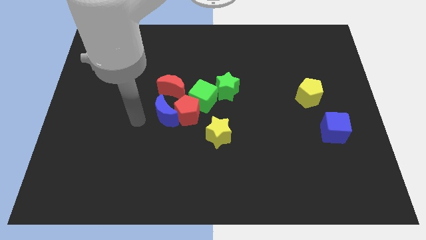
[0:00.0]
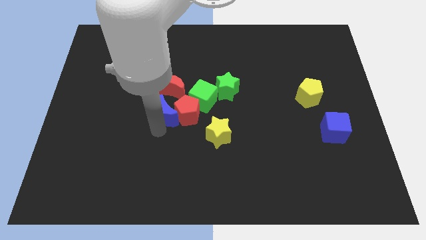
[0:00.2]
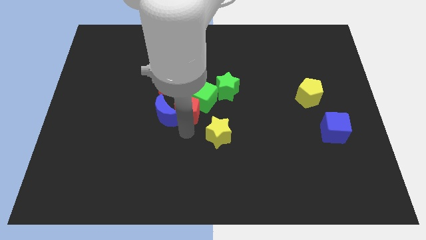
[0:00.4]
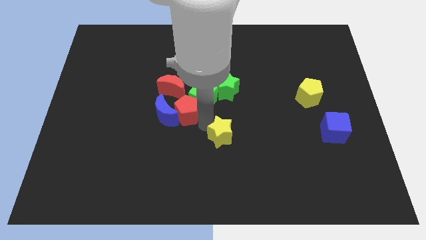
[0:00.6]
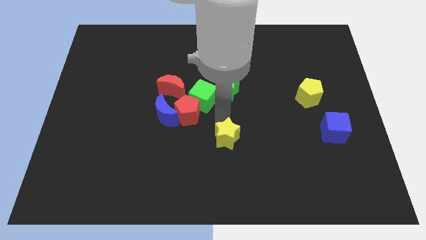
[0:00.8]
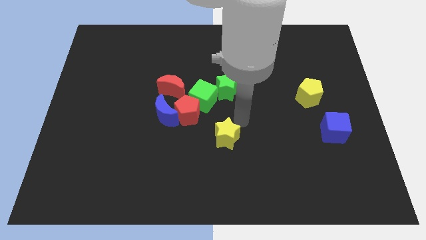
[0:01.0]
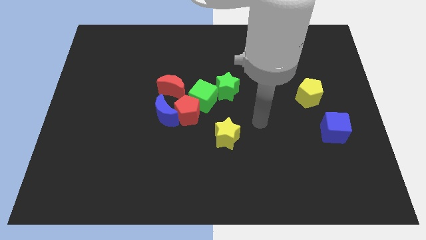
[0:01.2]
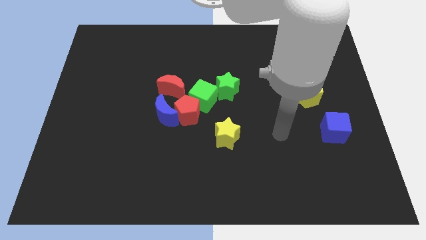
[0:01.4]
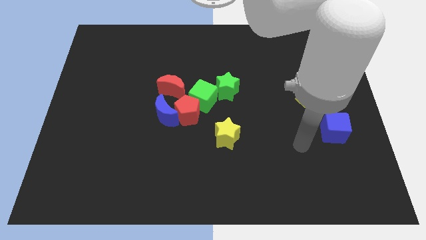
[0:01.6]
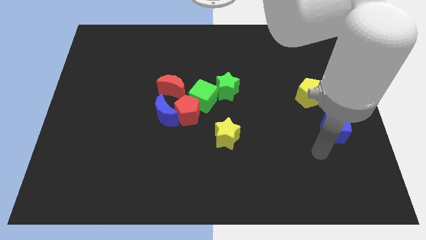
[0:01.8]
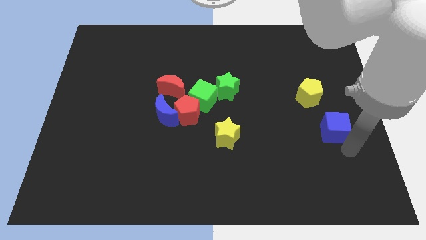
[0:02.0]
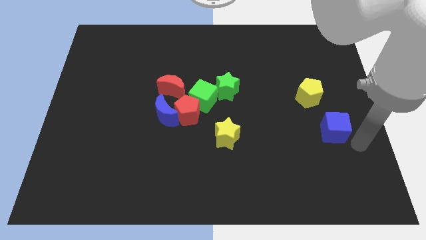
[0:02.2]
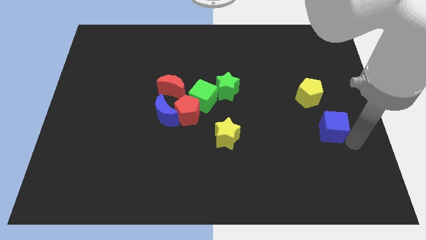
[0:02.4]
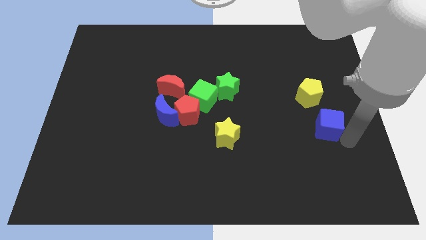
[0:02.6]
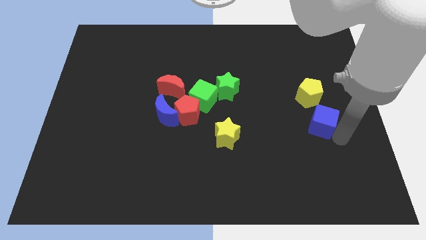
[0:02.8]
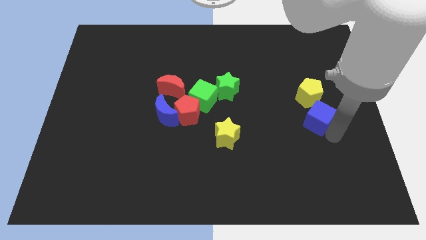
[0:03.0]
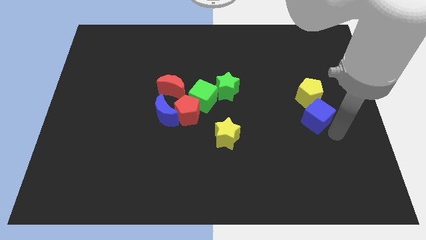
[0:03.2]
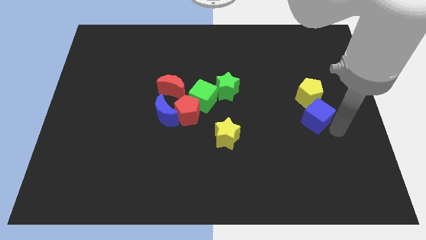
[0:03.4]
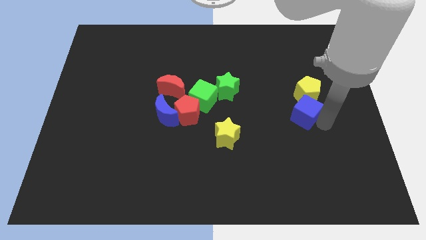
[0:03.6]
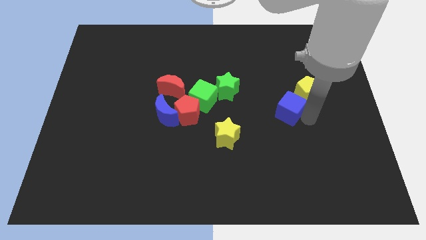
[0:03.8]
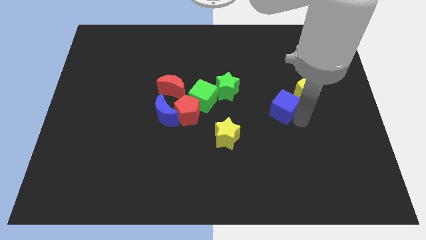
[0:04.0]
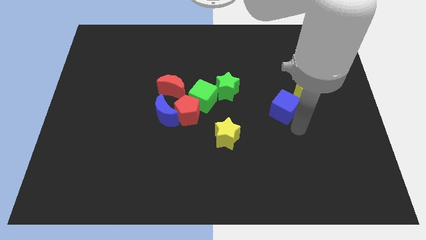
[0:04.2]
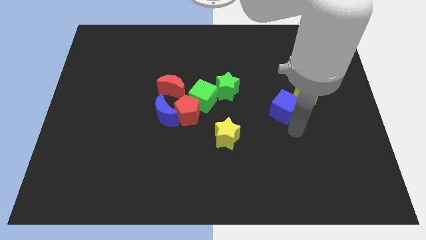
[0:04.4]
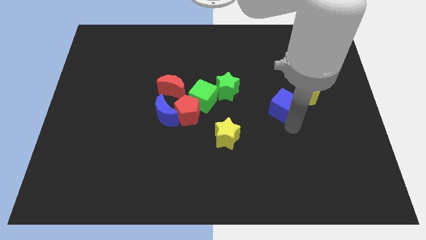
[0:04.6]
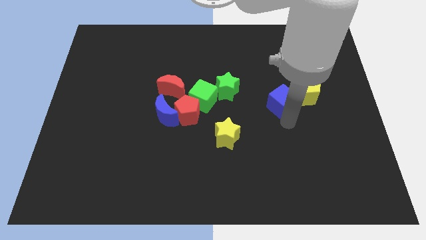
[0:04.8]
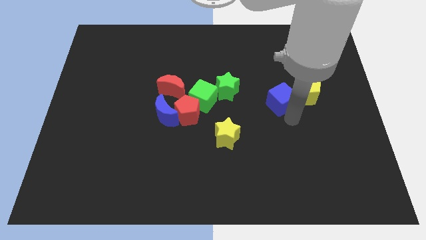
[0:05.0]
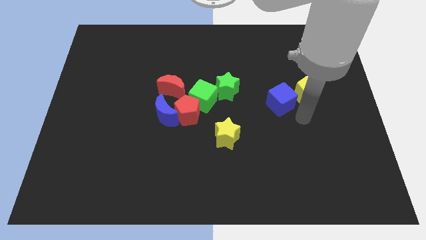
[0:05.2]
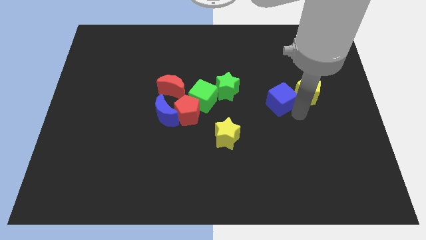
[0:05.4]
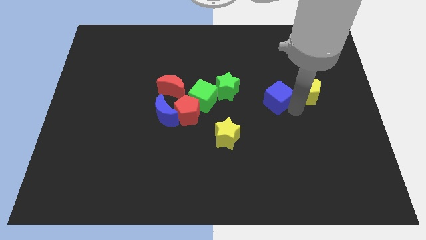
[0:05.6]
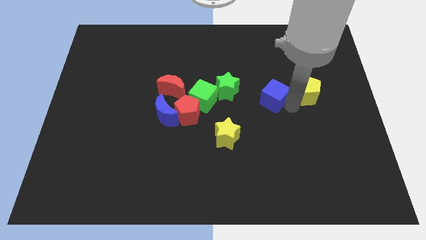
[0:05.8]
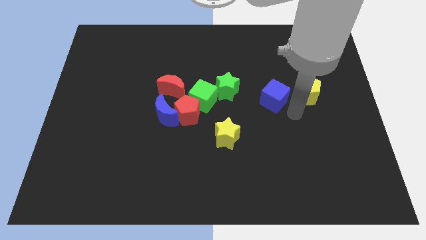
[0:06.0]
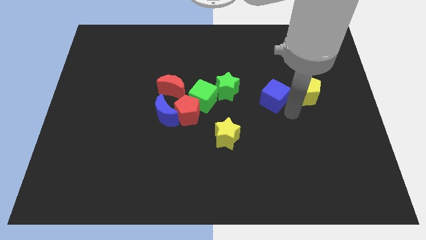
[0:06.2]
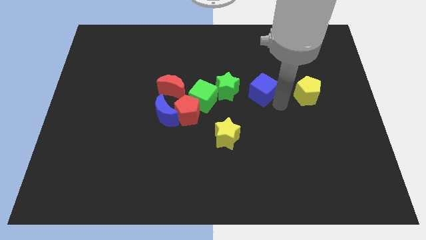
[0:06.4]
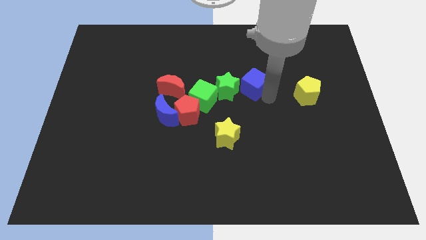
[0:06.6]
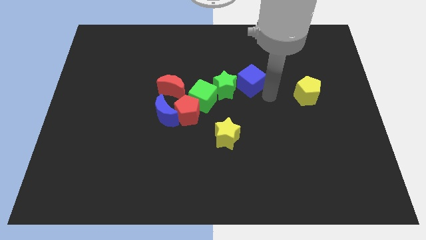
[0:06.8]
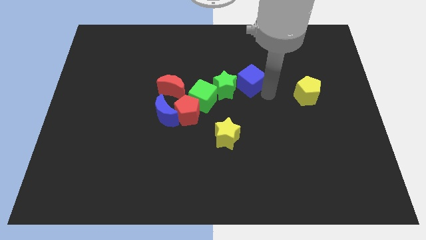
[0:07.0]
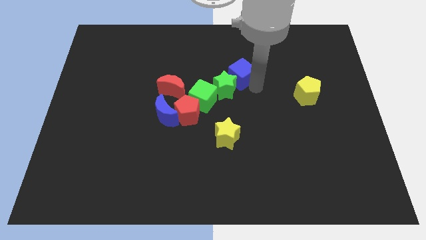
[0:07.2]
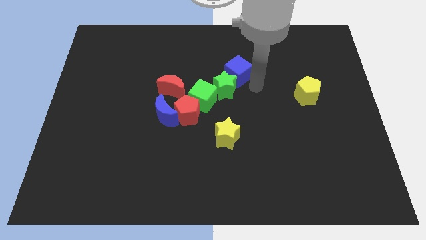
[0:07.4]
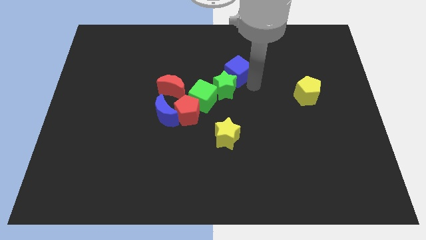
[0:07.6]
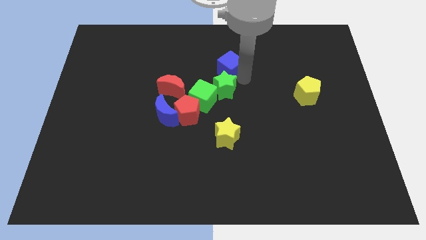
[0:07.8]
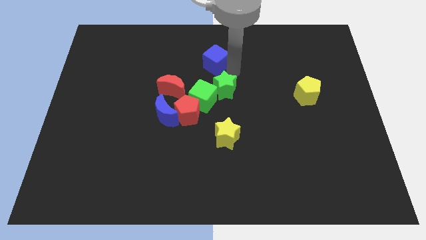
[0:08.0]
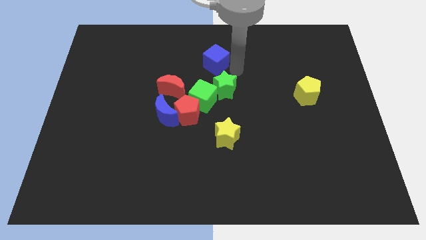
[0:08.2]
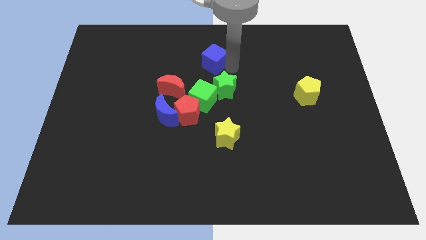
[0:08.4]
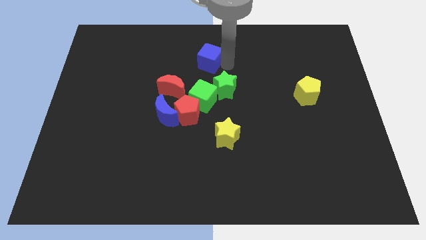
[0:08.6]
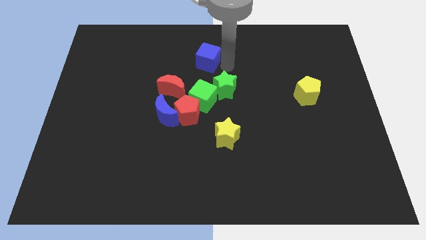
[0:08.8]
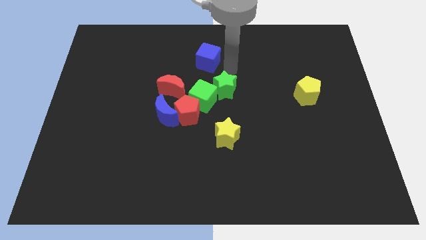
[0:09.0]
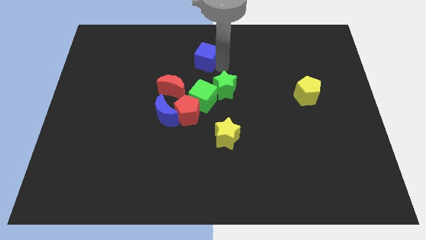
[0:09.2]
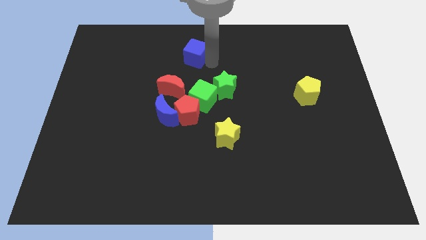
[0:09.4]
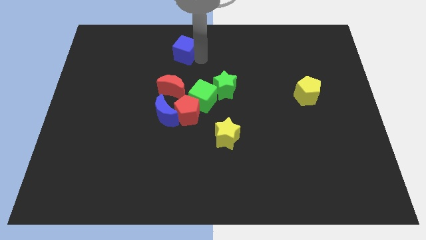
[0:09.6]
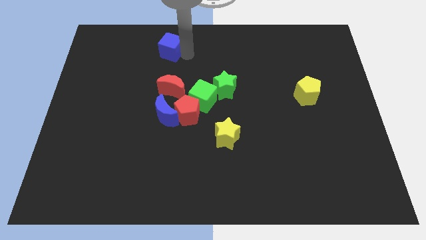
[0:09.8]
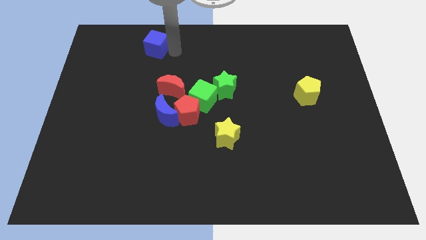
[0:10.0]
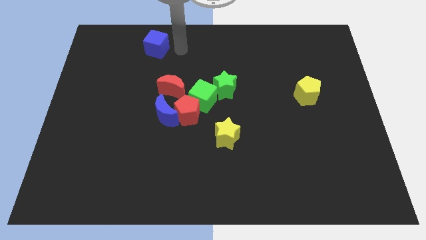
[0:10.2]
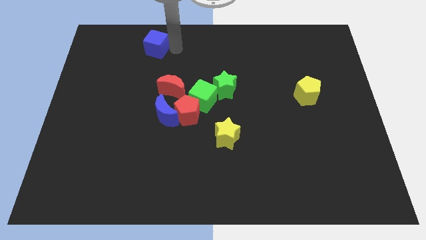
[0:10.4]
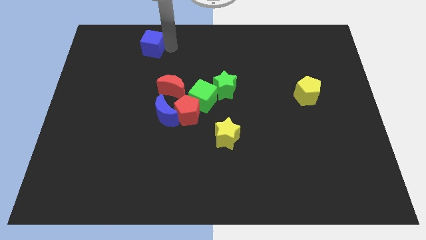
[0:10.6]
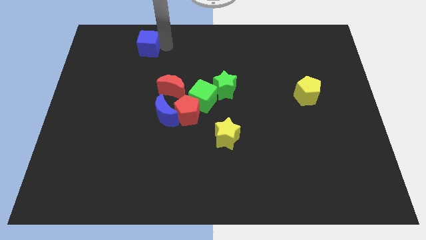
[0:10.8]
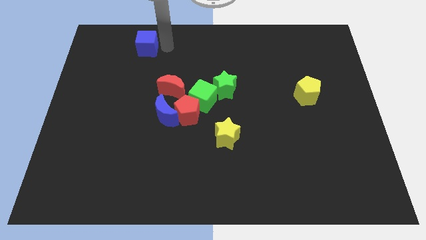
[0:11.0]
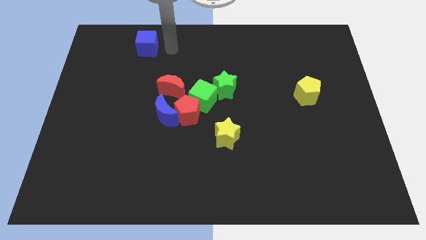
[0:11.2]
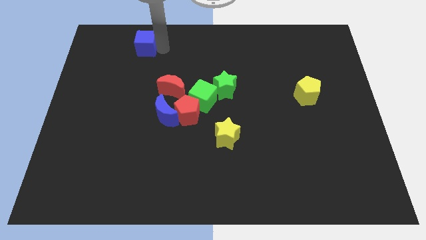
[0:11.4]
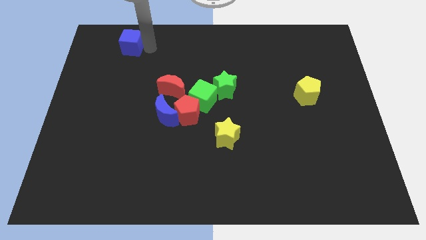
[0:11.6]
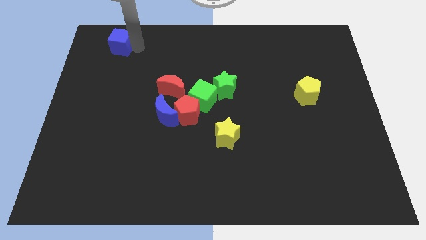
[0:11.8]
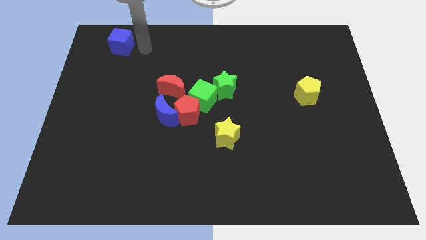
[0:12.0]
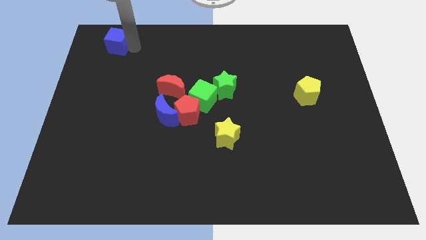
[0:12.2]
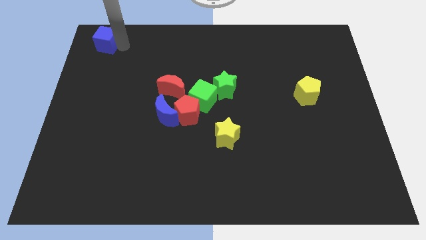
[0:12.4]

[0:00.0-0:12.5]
put the blue cube to the upper left corner
